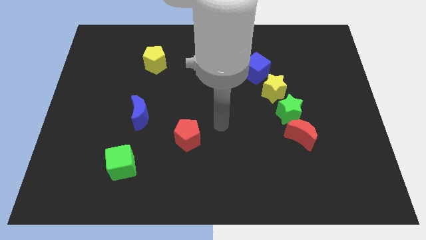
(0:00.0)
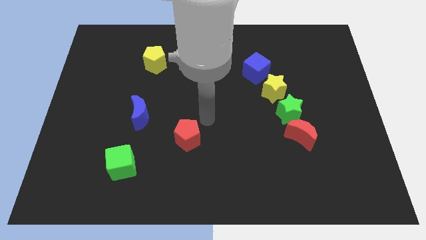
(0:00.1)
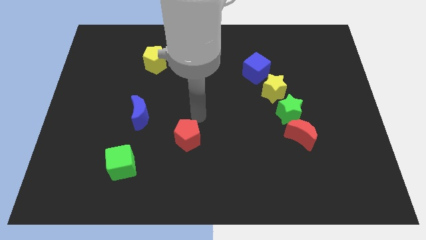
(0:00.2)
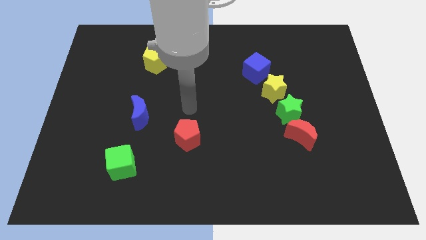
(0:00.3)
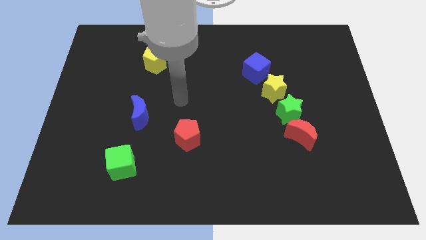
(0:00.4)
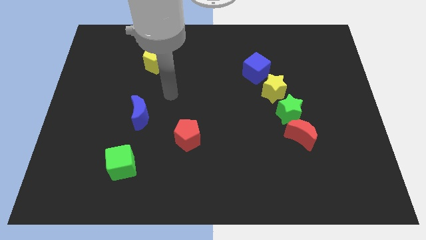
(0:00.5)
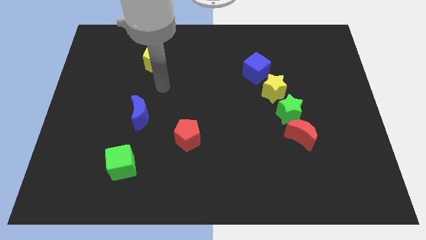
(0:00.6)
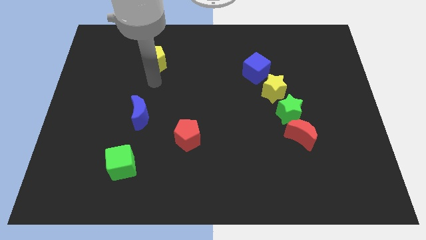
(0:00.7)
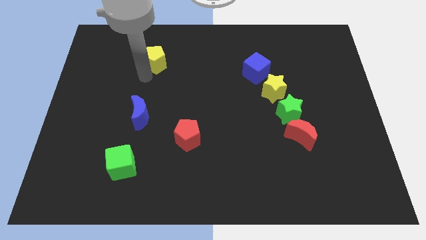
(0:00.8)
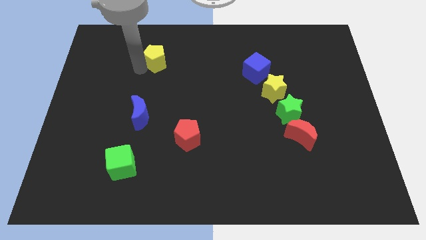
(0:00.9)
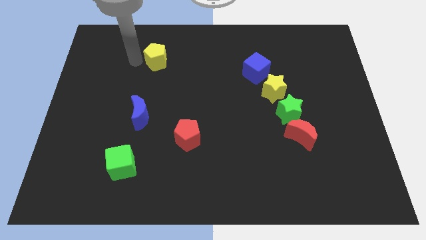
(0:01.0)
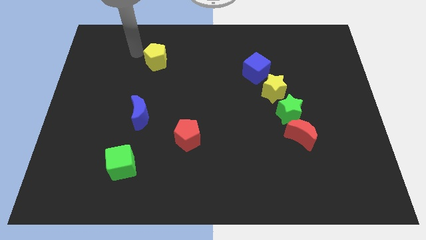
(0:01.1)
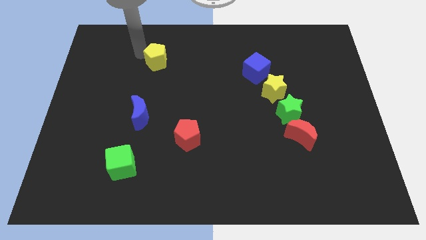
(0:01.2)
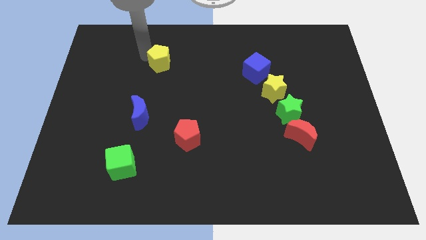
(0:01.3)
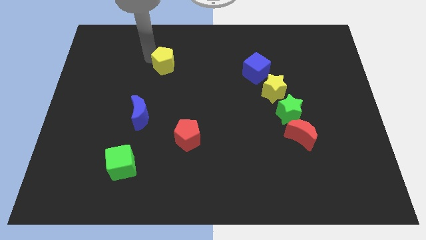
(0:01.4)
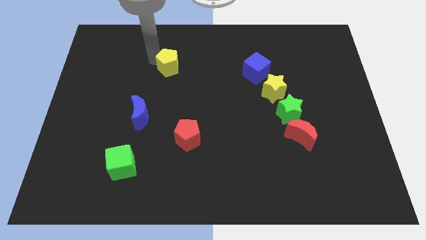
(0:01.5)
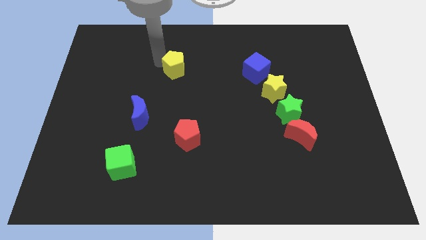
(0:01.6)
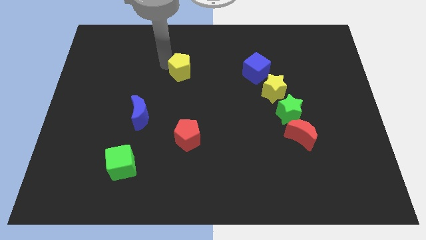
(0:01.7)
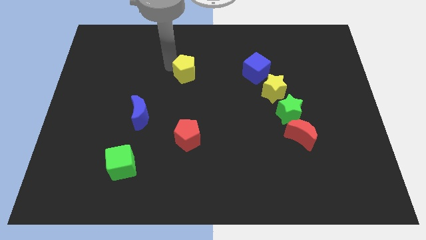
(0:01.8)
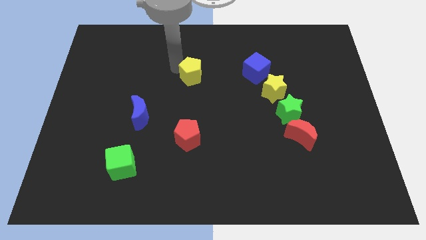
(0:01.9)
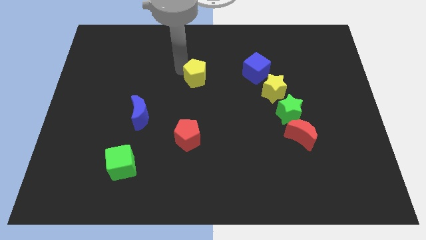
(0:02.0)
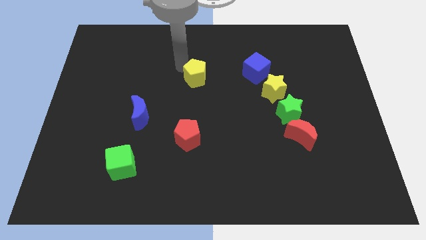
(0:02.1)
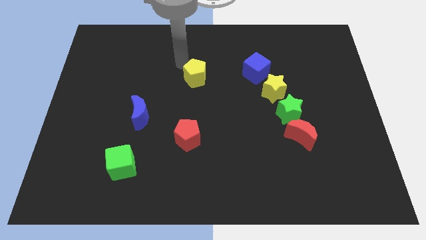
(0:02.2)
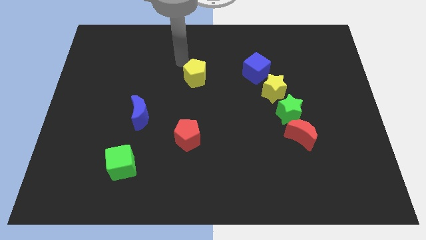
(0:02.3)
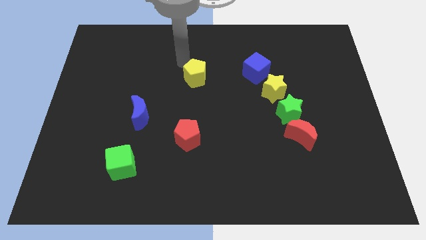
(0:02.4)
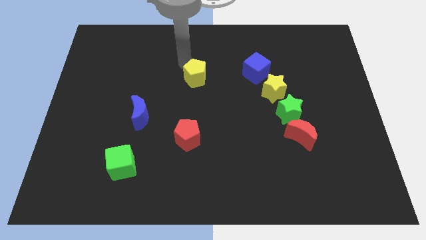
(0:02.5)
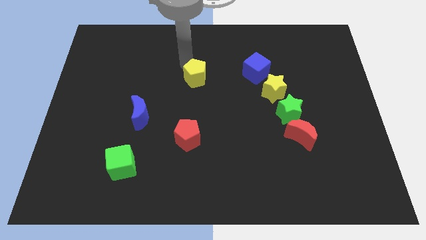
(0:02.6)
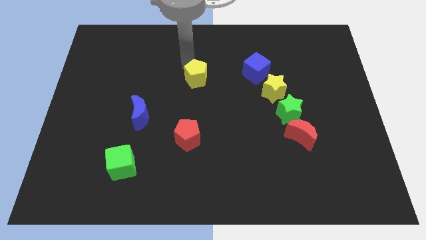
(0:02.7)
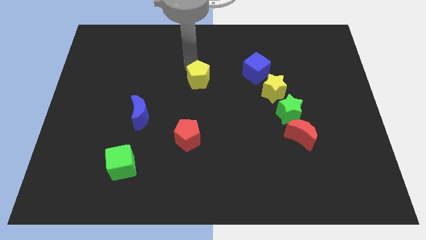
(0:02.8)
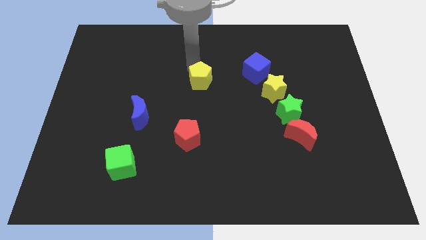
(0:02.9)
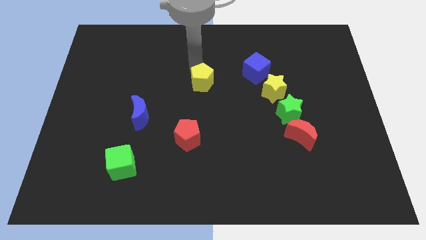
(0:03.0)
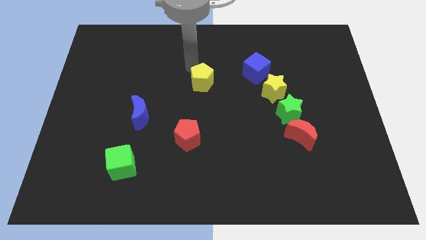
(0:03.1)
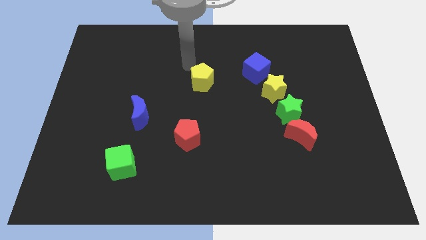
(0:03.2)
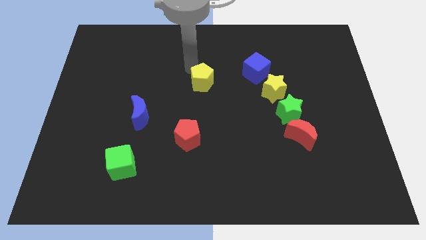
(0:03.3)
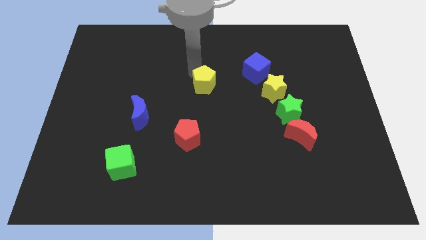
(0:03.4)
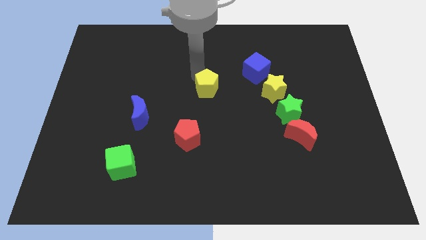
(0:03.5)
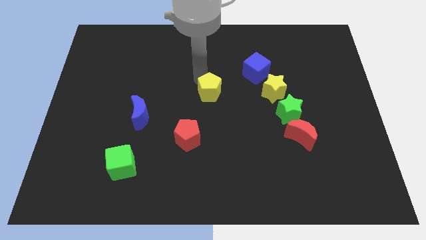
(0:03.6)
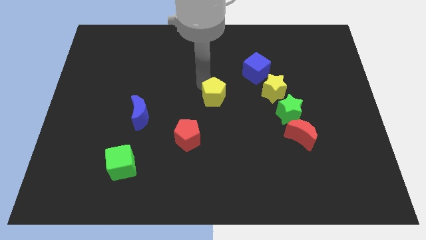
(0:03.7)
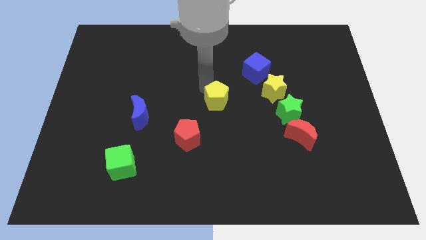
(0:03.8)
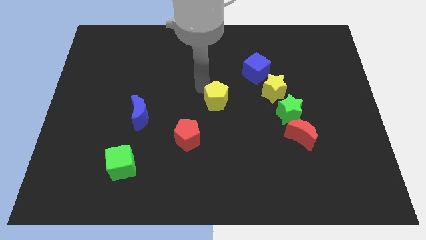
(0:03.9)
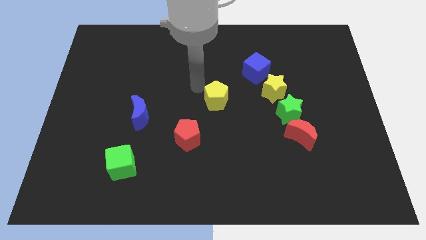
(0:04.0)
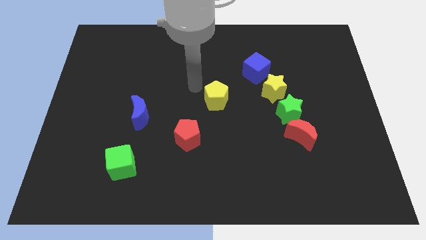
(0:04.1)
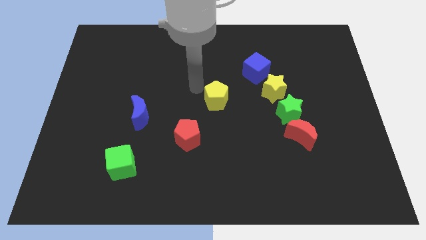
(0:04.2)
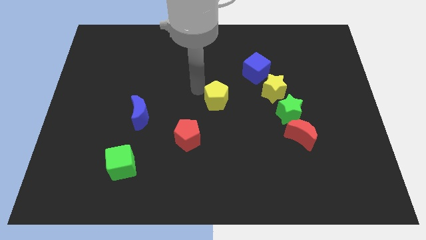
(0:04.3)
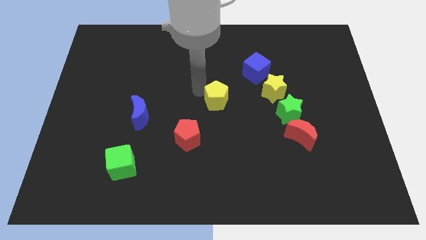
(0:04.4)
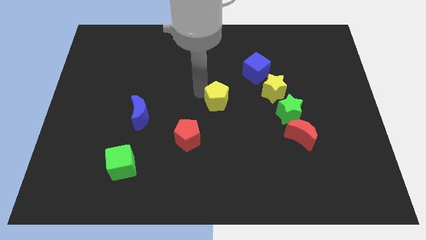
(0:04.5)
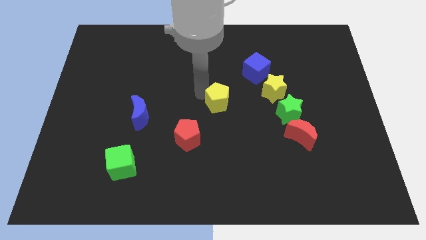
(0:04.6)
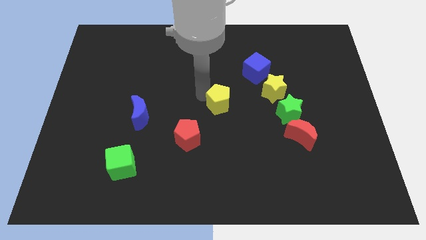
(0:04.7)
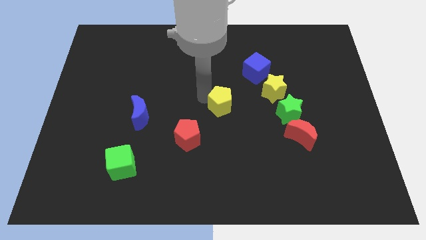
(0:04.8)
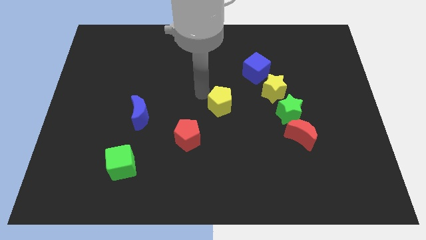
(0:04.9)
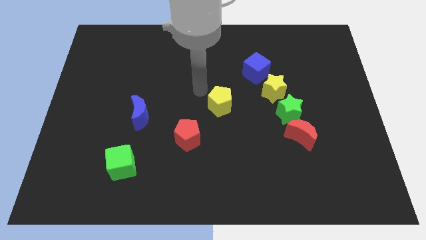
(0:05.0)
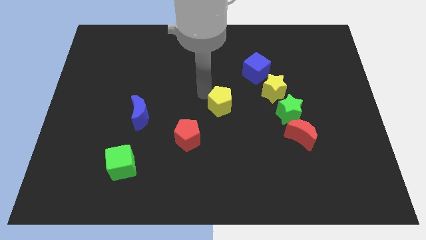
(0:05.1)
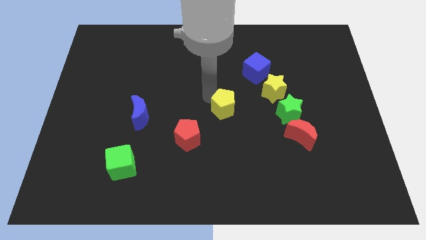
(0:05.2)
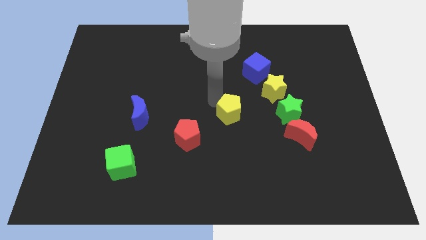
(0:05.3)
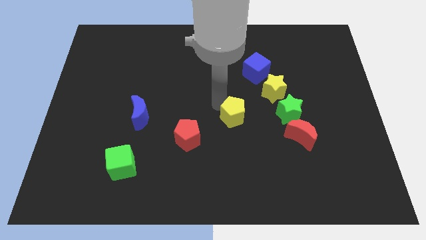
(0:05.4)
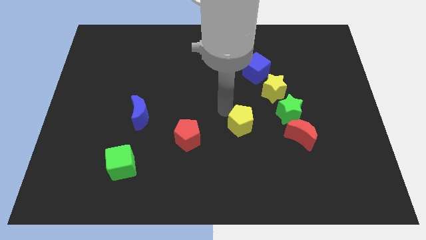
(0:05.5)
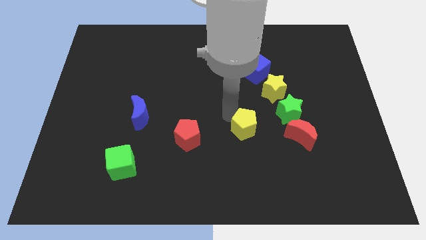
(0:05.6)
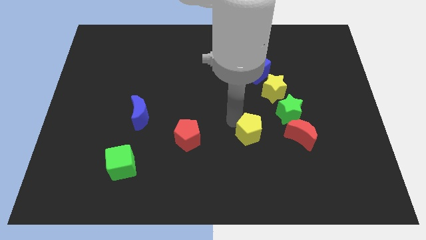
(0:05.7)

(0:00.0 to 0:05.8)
put the yellow pentagon diagonally down and to the left of the green star

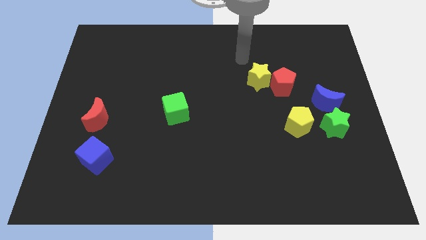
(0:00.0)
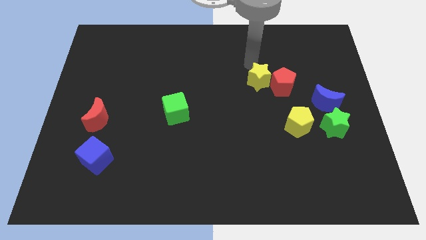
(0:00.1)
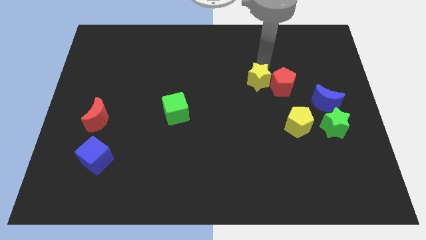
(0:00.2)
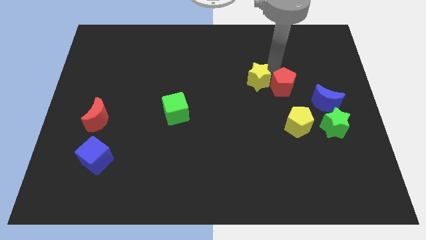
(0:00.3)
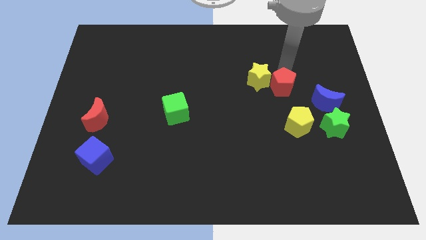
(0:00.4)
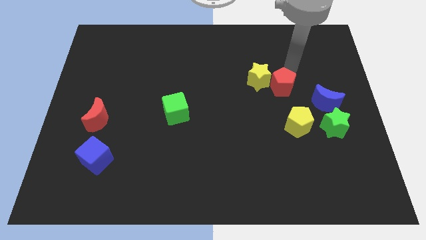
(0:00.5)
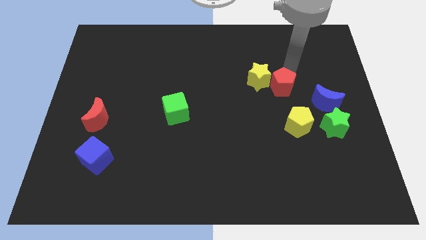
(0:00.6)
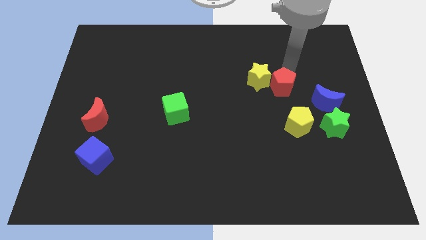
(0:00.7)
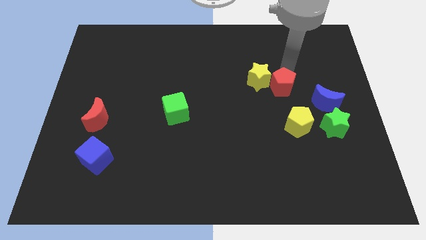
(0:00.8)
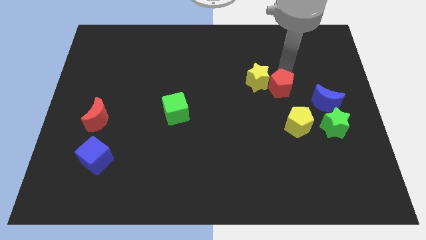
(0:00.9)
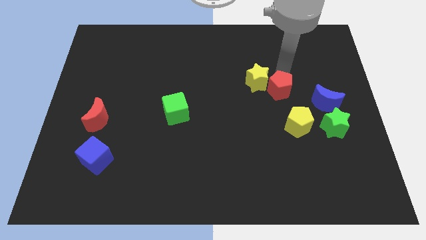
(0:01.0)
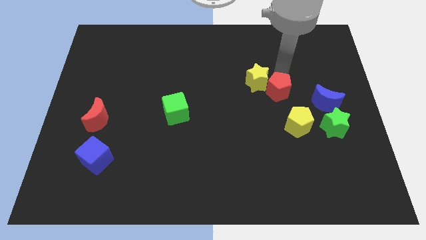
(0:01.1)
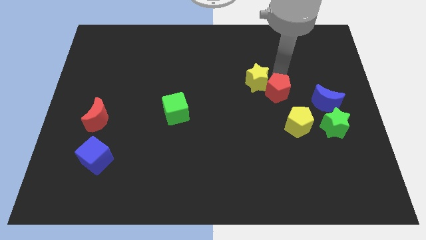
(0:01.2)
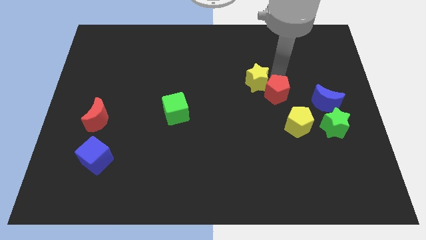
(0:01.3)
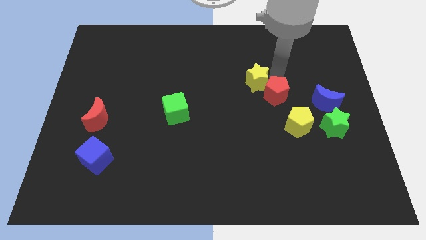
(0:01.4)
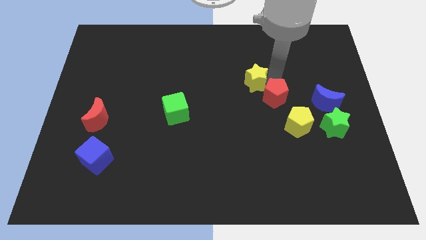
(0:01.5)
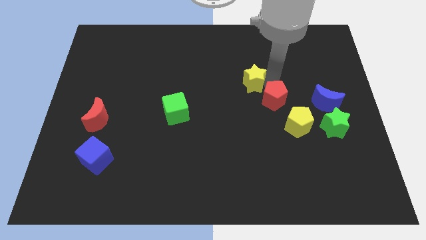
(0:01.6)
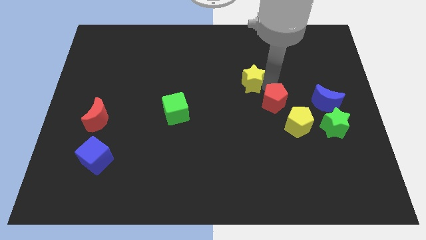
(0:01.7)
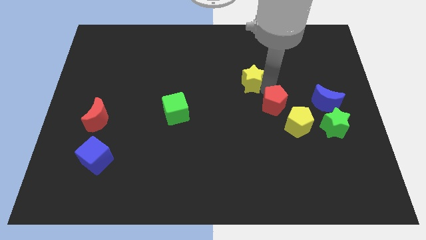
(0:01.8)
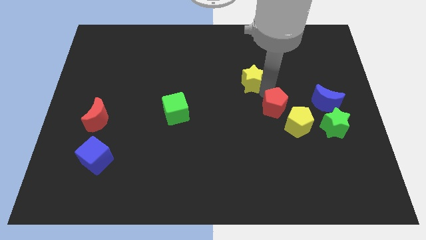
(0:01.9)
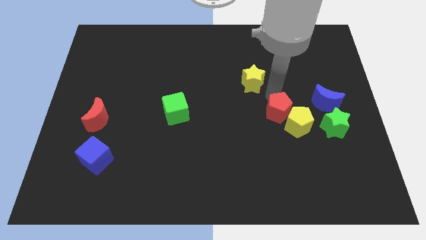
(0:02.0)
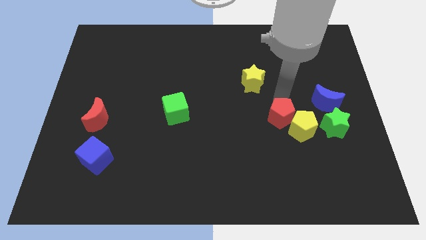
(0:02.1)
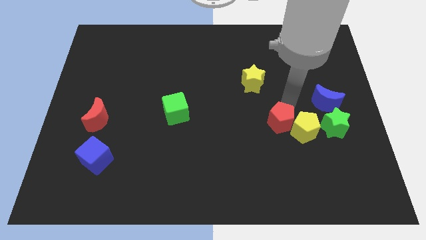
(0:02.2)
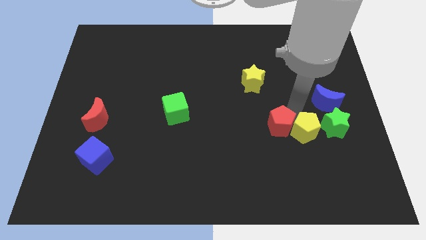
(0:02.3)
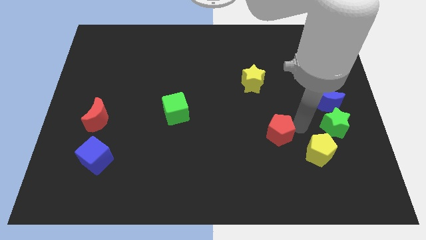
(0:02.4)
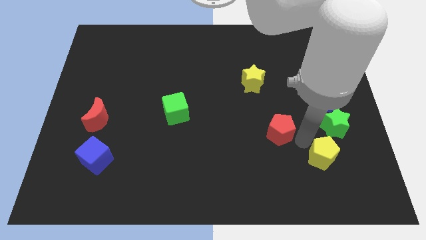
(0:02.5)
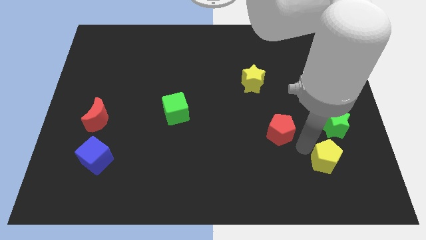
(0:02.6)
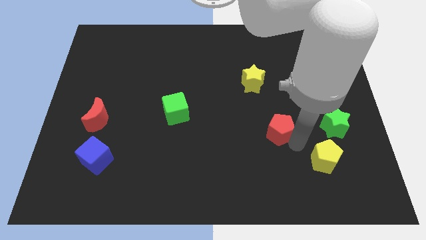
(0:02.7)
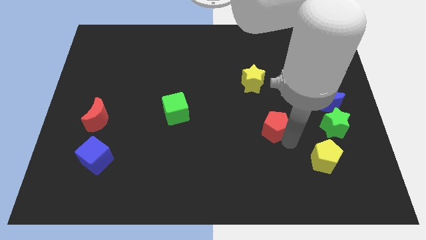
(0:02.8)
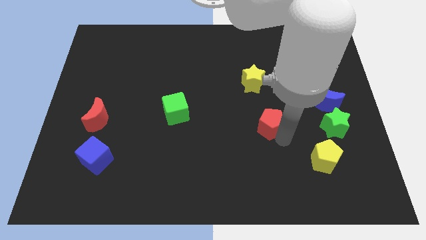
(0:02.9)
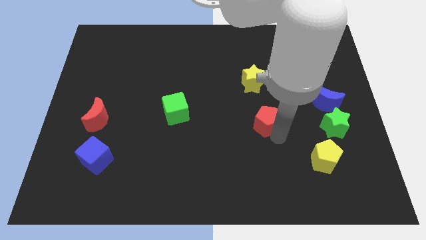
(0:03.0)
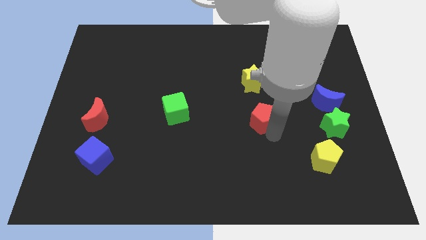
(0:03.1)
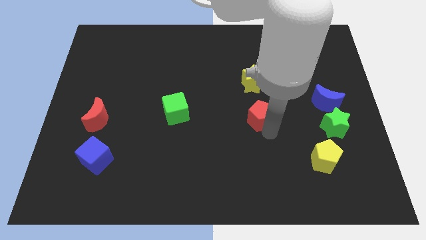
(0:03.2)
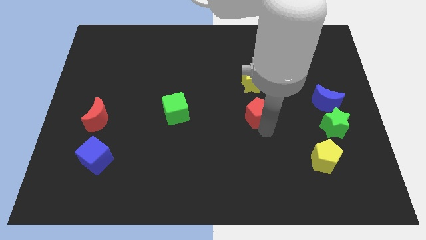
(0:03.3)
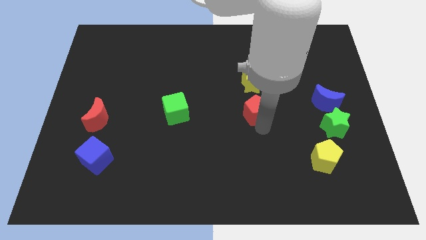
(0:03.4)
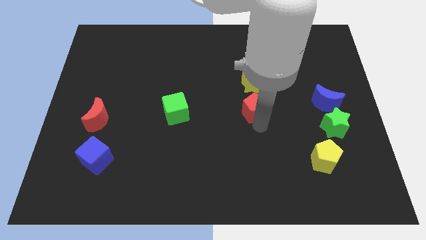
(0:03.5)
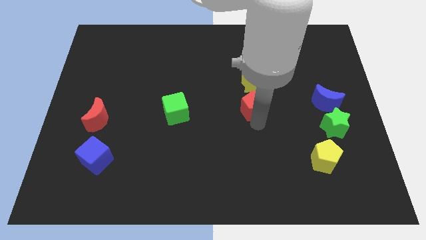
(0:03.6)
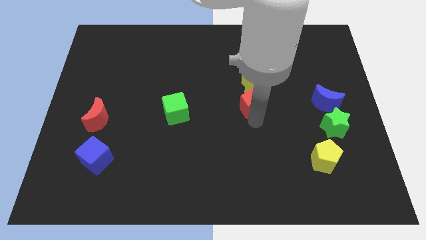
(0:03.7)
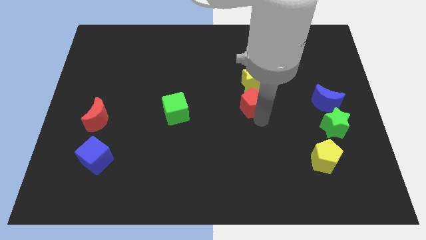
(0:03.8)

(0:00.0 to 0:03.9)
push the red pentagon diagonally down and to the left of the yellow star
